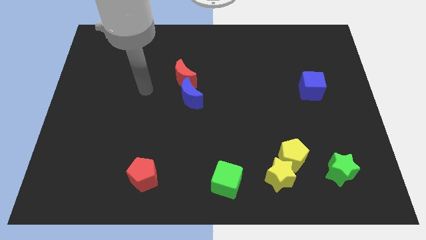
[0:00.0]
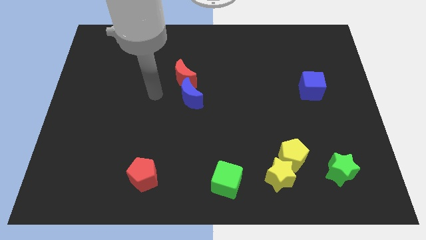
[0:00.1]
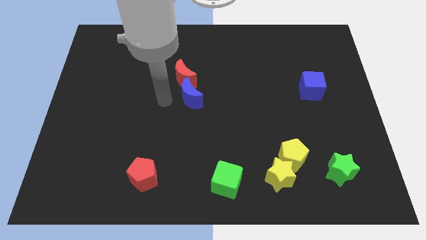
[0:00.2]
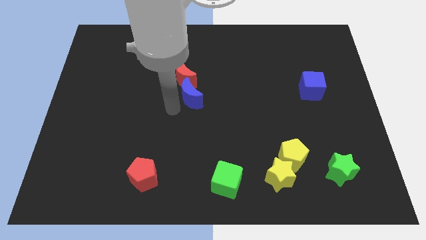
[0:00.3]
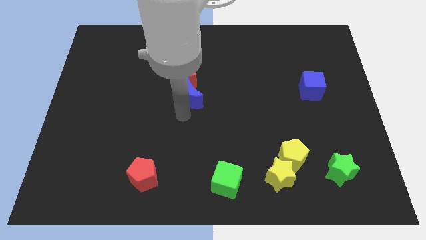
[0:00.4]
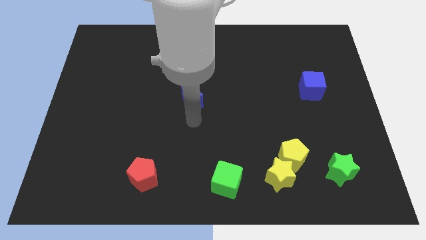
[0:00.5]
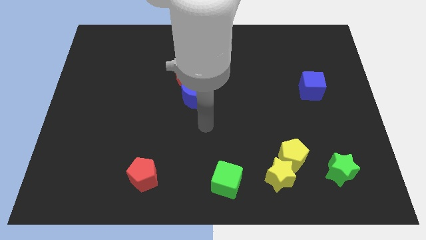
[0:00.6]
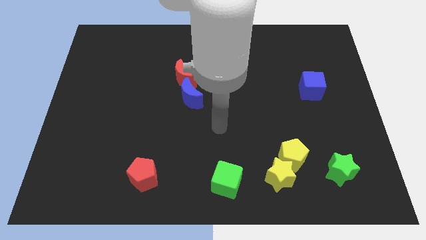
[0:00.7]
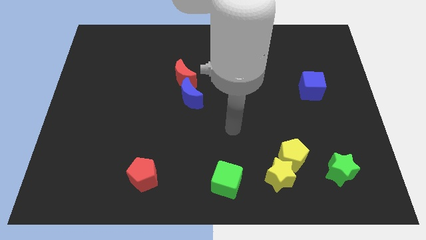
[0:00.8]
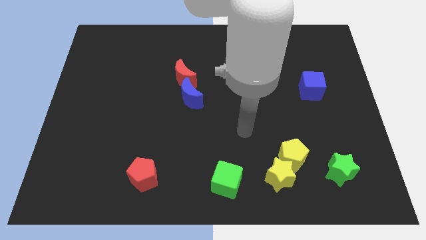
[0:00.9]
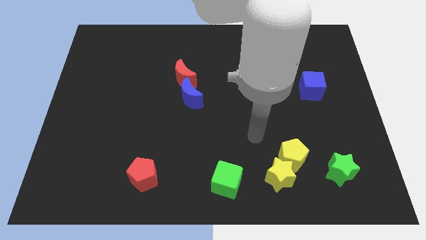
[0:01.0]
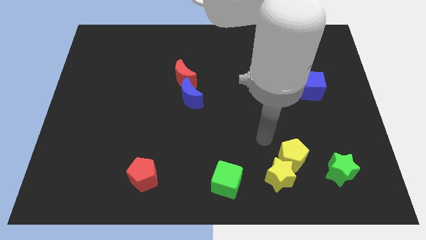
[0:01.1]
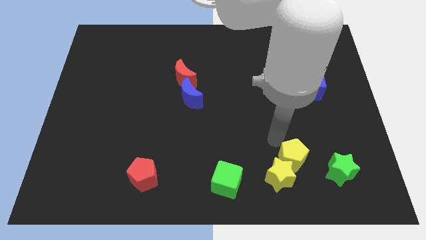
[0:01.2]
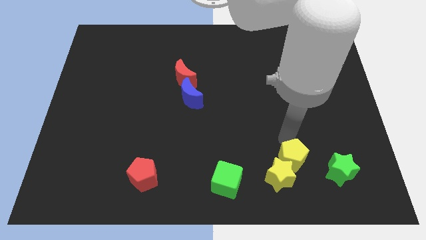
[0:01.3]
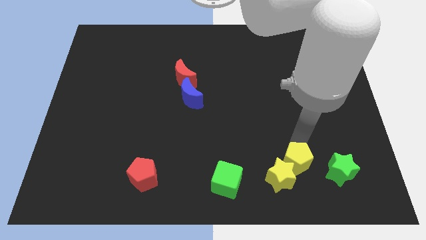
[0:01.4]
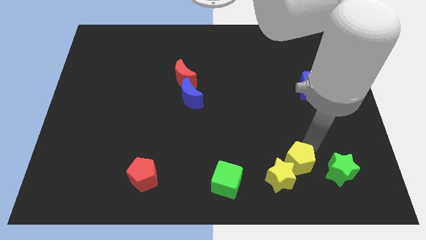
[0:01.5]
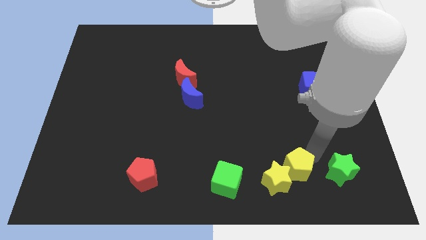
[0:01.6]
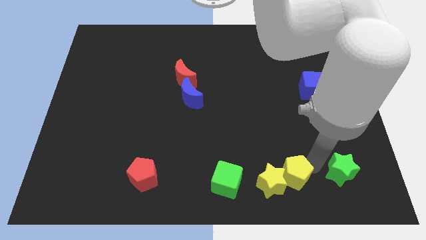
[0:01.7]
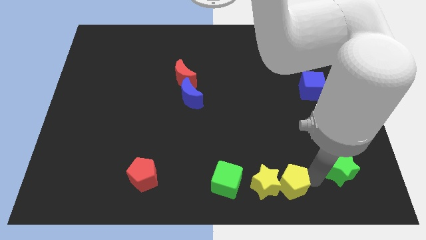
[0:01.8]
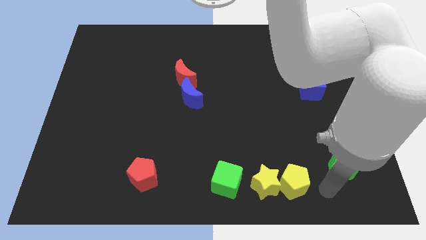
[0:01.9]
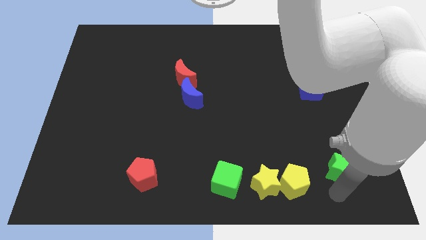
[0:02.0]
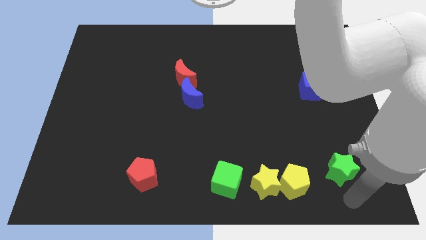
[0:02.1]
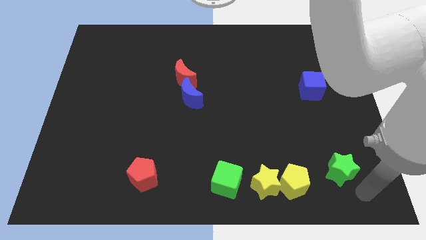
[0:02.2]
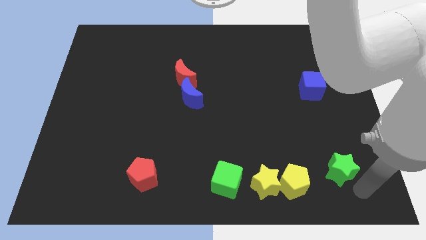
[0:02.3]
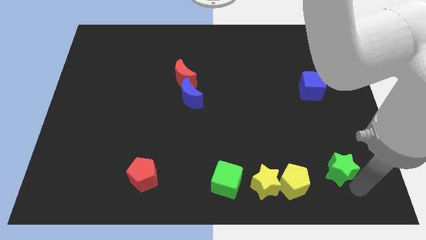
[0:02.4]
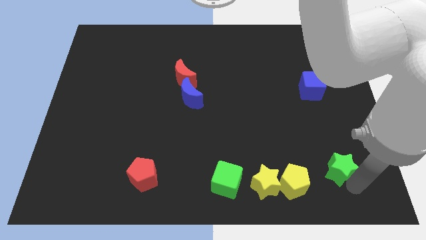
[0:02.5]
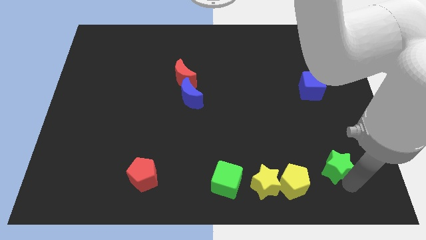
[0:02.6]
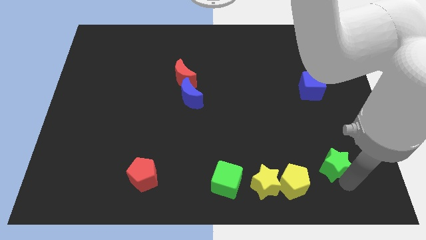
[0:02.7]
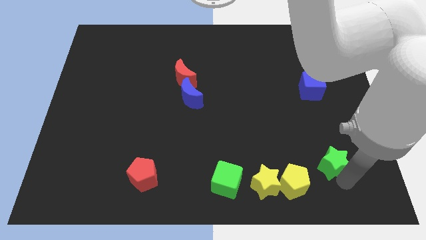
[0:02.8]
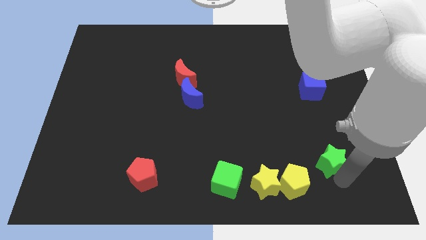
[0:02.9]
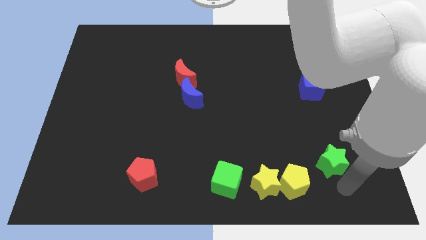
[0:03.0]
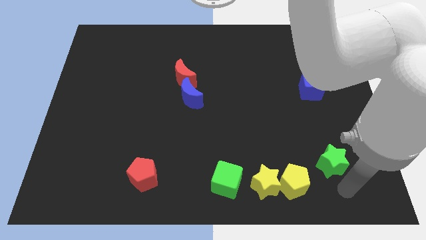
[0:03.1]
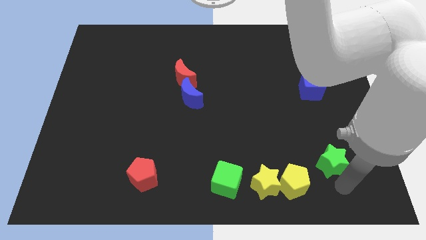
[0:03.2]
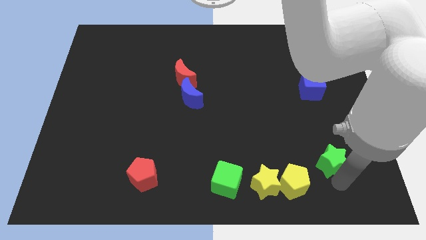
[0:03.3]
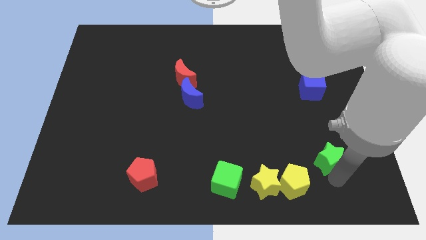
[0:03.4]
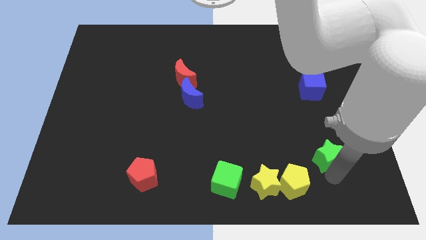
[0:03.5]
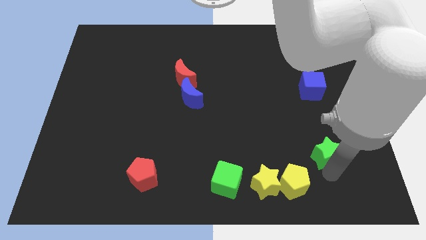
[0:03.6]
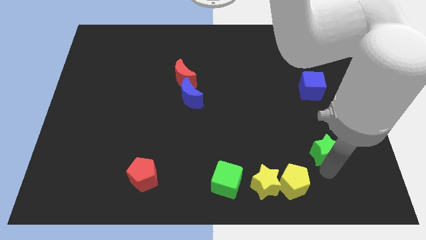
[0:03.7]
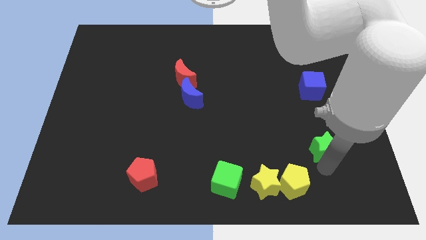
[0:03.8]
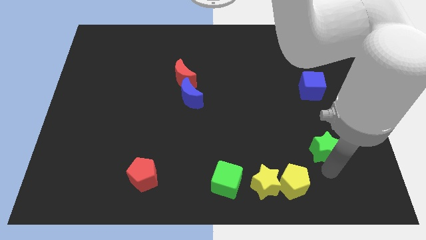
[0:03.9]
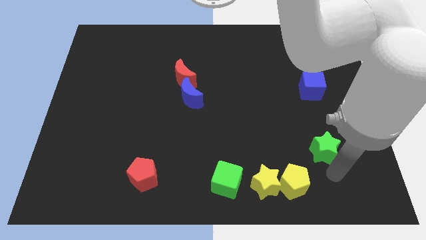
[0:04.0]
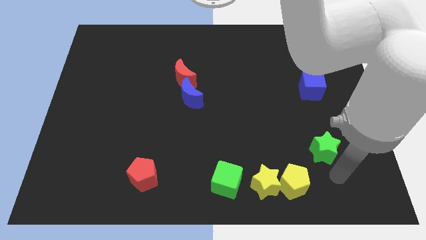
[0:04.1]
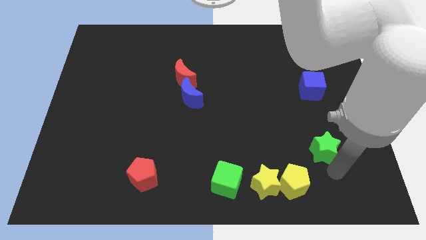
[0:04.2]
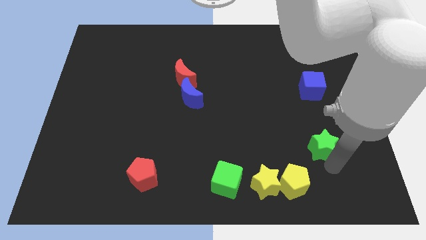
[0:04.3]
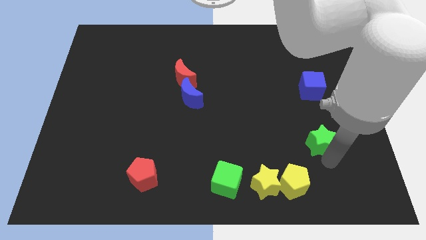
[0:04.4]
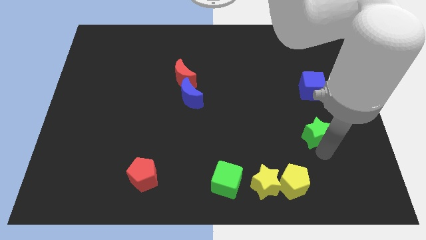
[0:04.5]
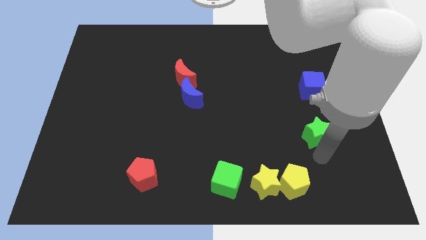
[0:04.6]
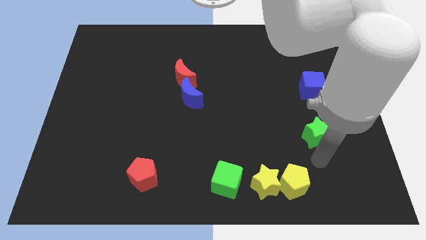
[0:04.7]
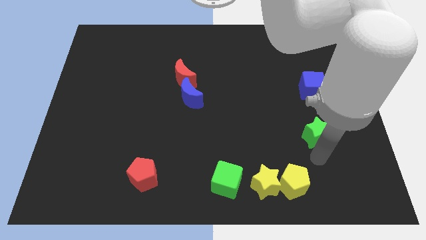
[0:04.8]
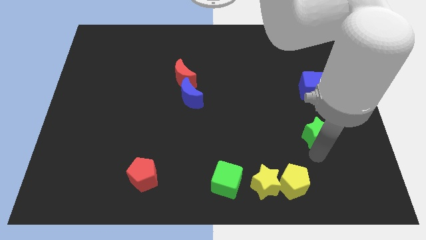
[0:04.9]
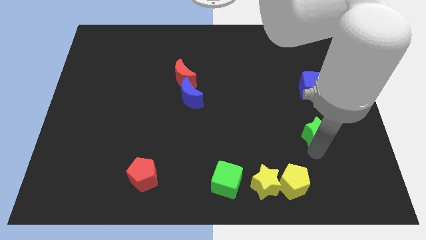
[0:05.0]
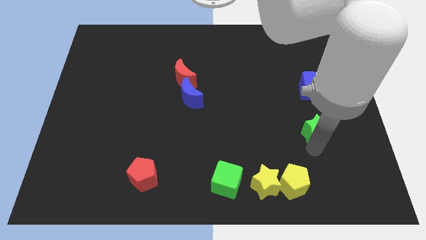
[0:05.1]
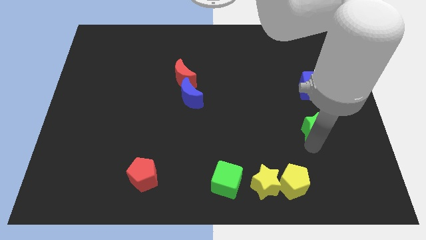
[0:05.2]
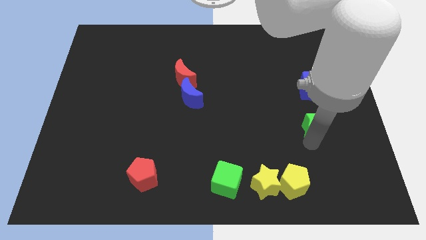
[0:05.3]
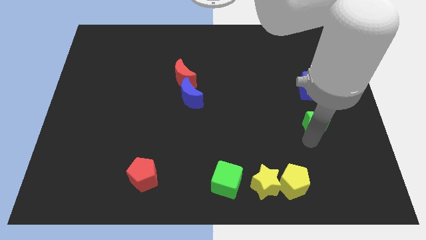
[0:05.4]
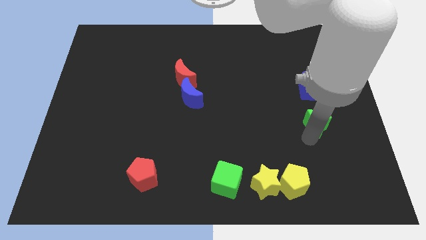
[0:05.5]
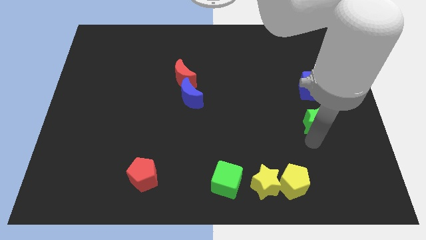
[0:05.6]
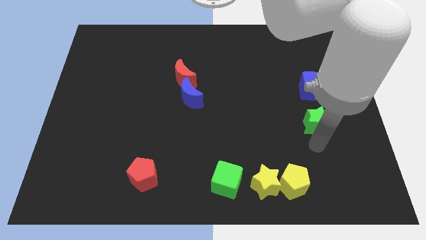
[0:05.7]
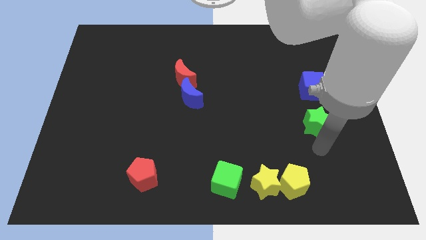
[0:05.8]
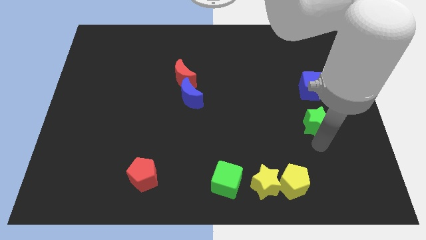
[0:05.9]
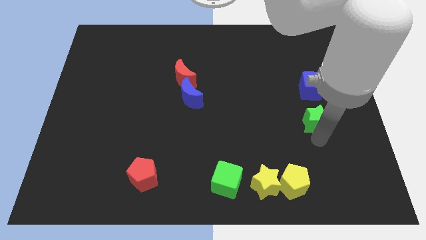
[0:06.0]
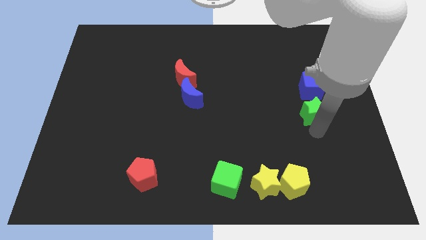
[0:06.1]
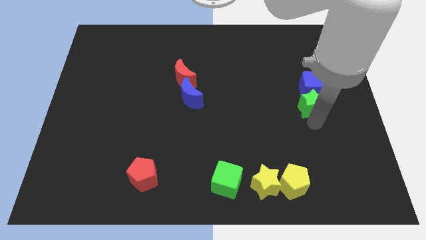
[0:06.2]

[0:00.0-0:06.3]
put the green star to the blue cube

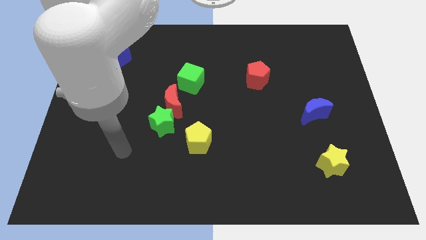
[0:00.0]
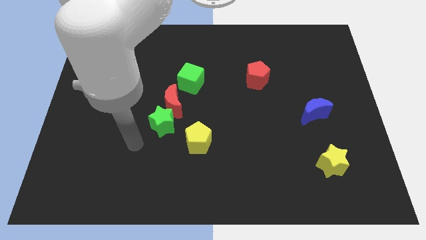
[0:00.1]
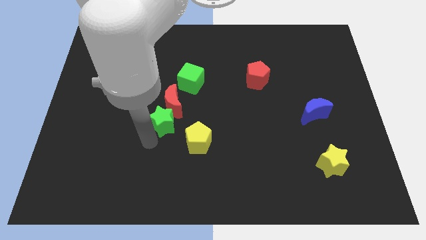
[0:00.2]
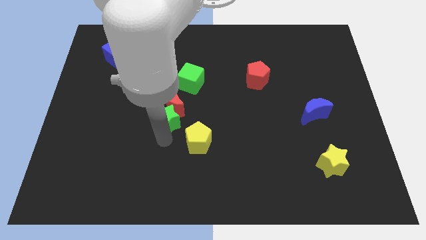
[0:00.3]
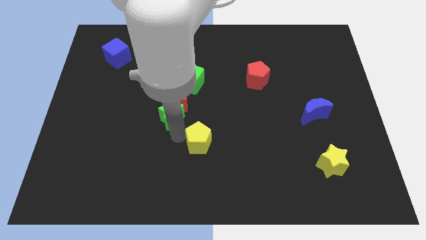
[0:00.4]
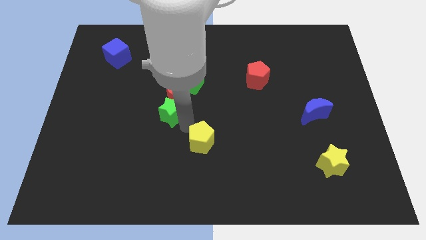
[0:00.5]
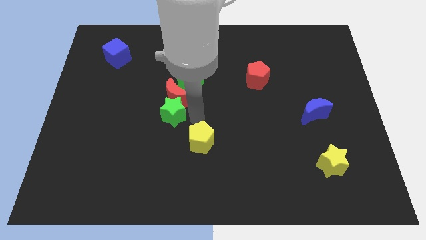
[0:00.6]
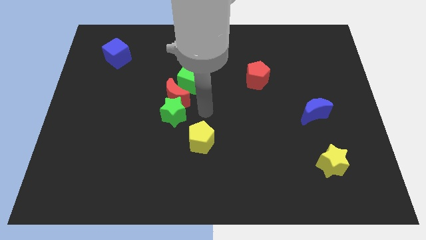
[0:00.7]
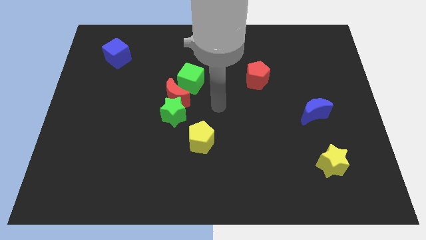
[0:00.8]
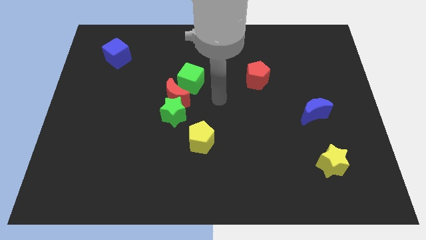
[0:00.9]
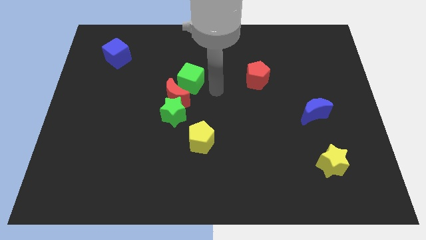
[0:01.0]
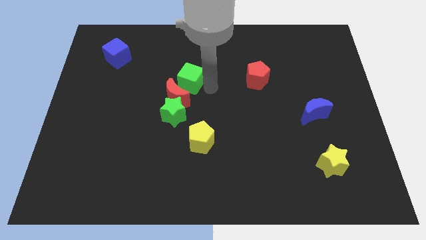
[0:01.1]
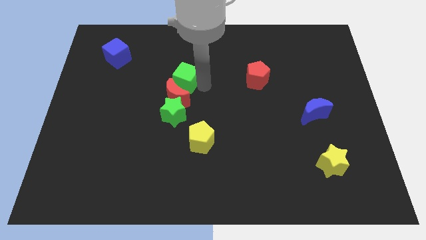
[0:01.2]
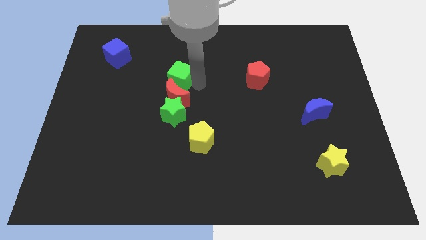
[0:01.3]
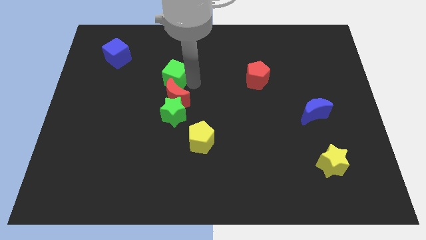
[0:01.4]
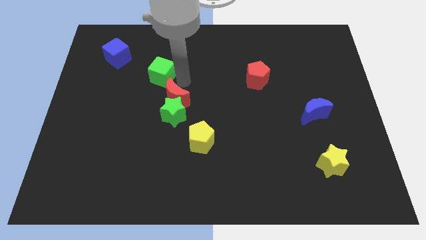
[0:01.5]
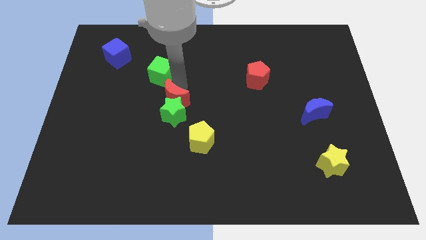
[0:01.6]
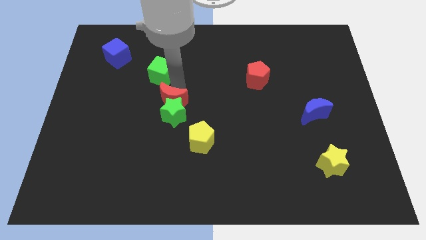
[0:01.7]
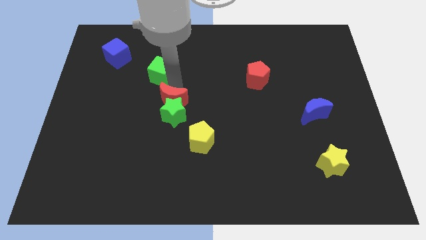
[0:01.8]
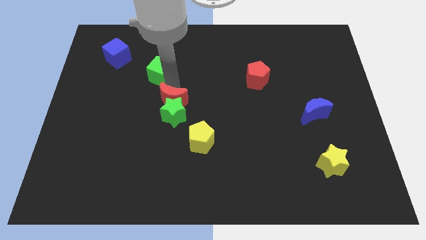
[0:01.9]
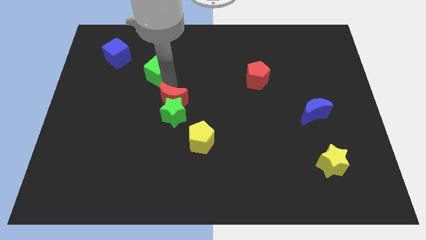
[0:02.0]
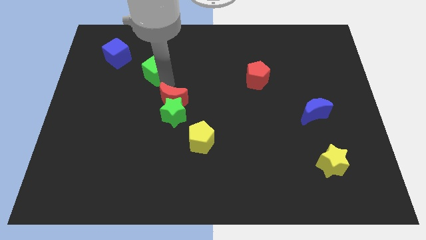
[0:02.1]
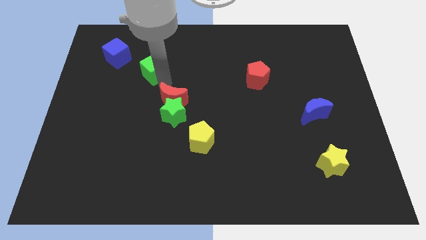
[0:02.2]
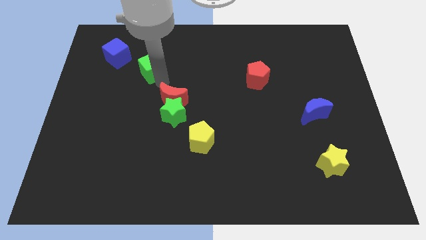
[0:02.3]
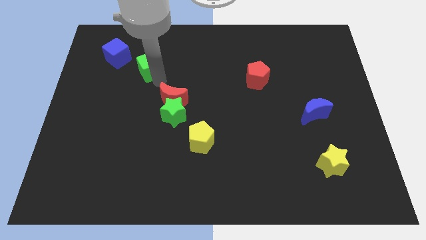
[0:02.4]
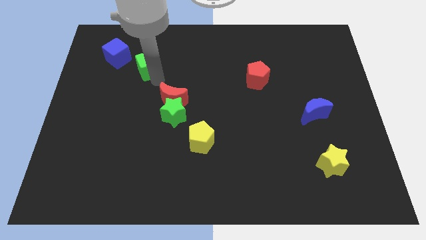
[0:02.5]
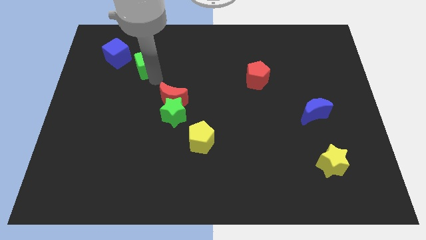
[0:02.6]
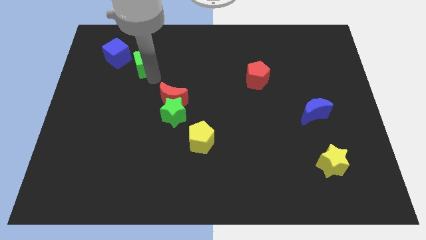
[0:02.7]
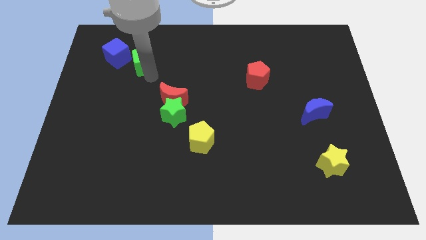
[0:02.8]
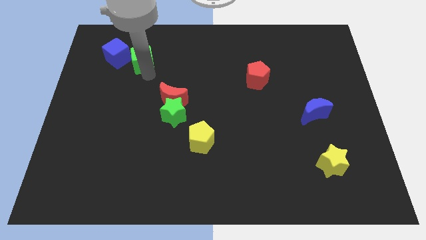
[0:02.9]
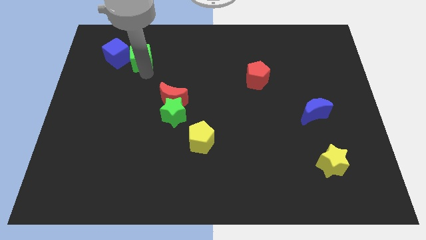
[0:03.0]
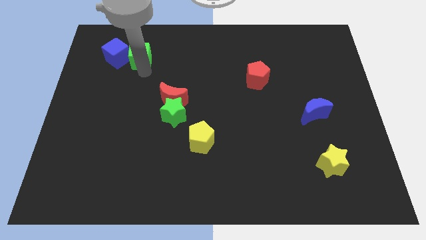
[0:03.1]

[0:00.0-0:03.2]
slide the green cube next to the blue cube
